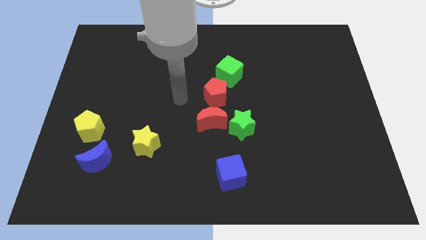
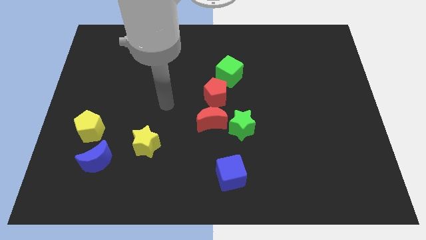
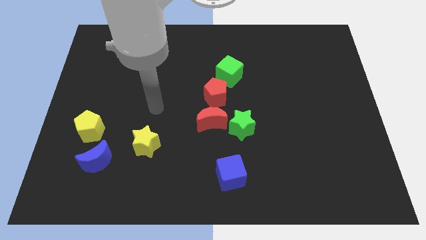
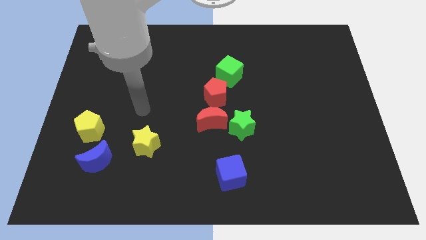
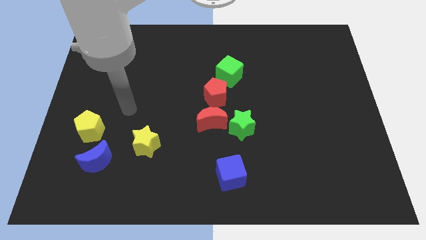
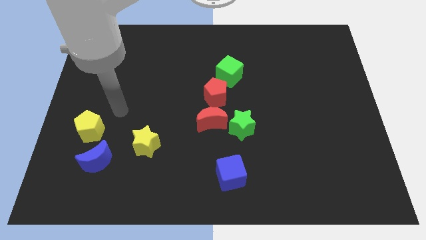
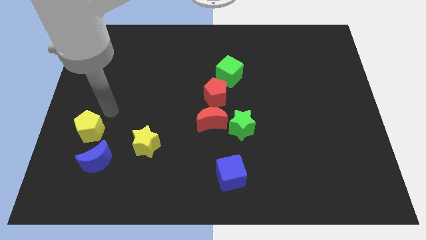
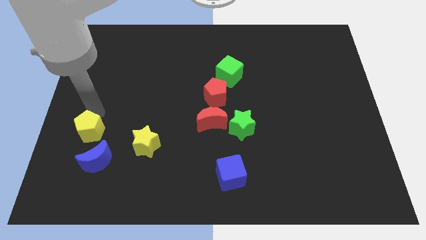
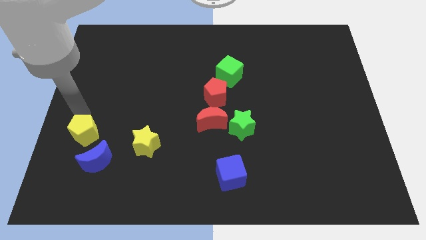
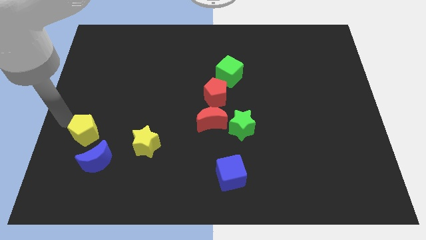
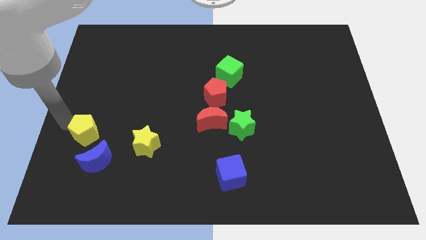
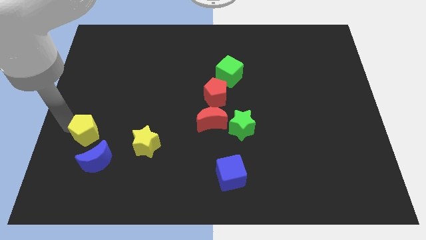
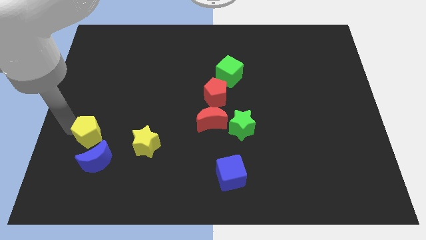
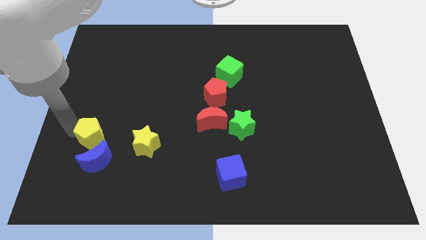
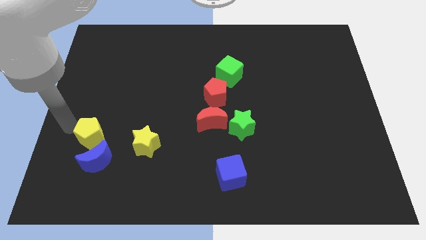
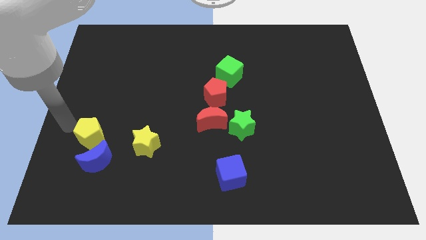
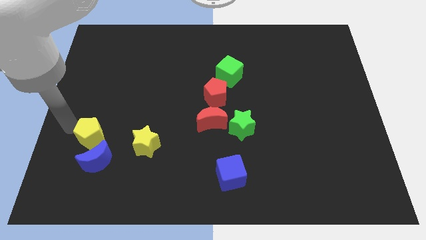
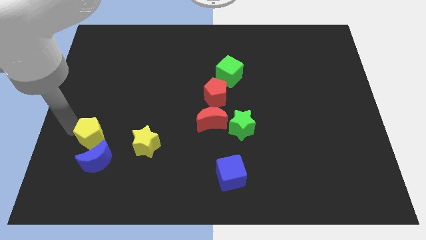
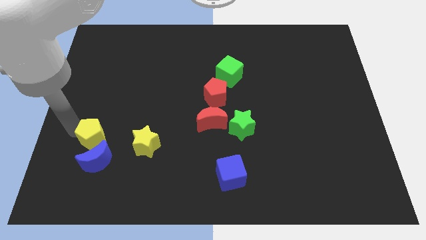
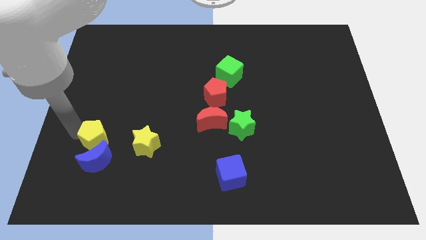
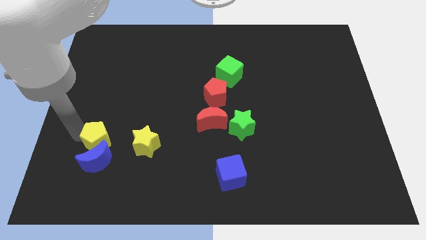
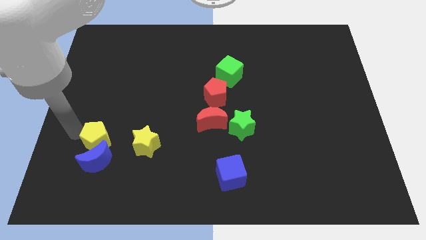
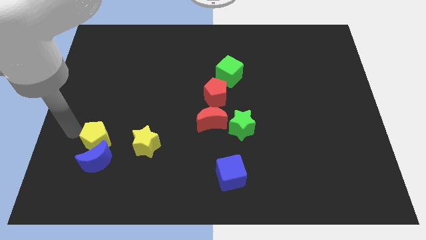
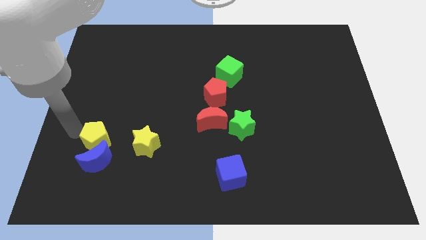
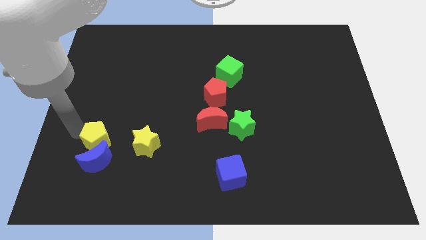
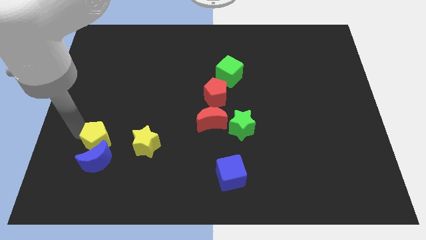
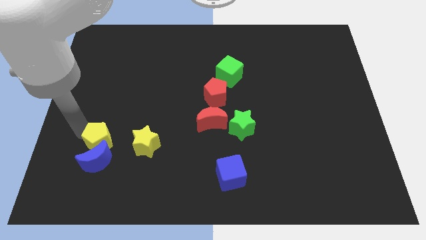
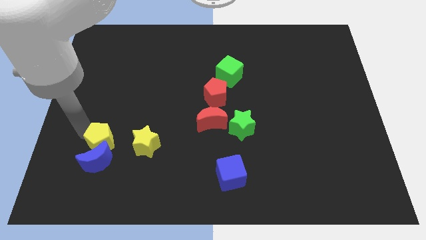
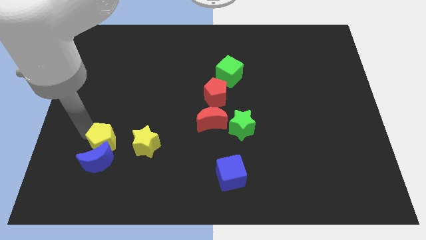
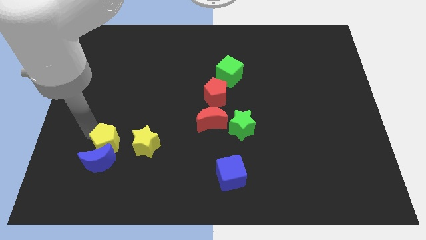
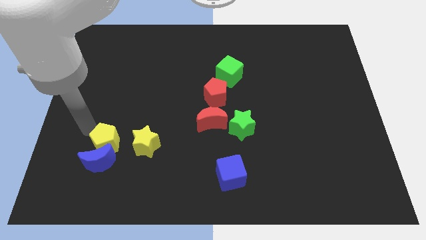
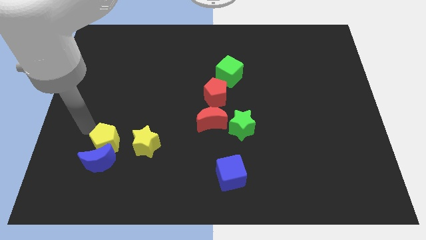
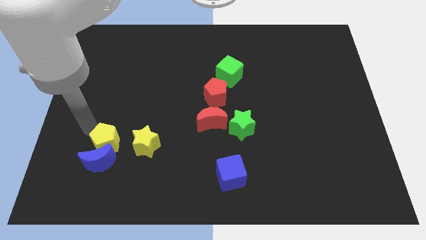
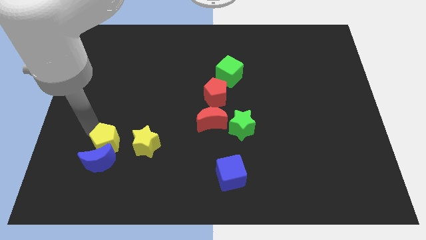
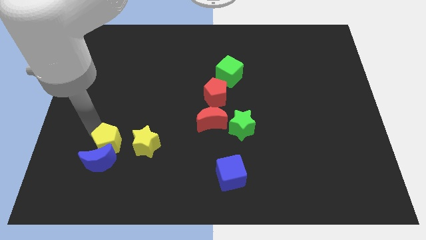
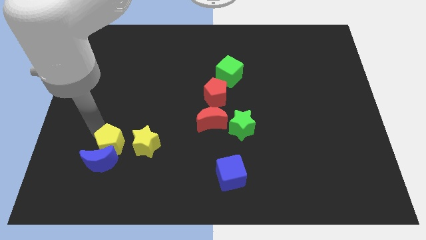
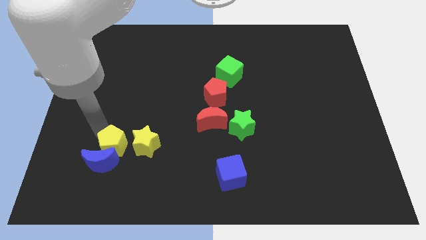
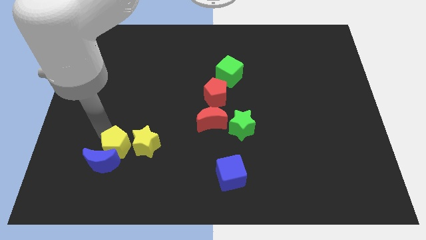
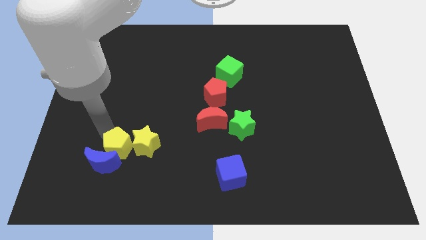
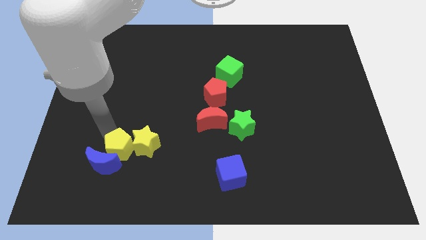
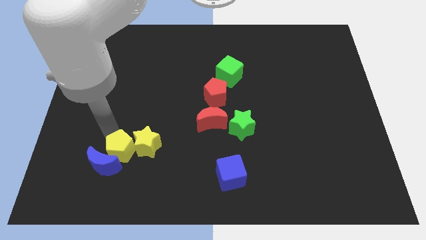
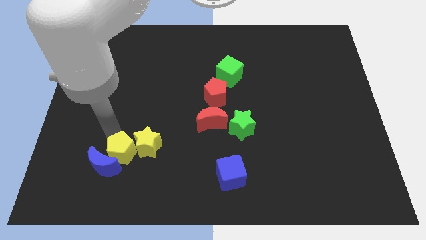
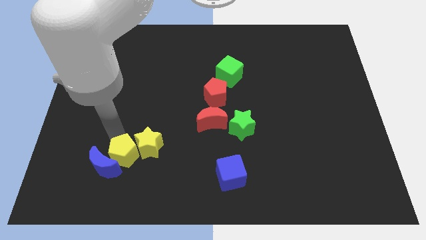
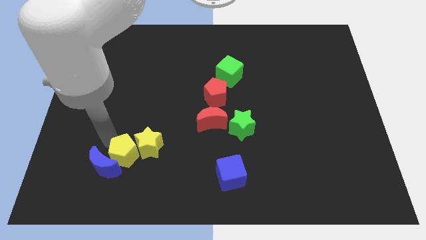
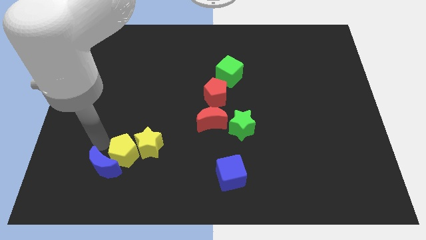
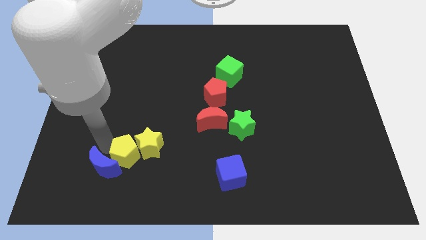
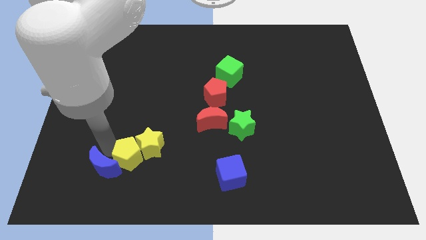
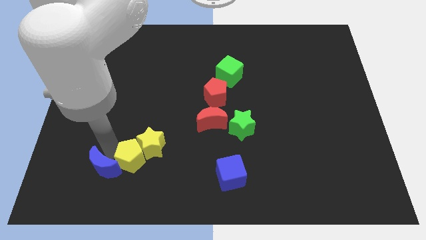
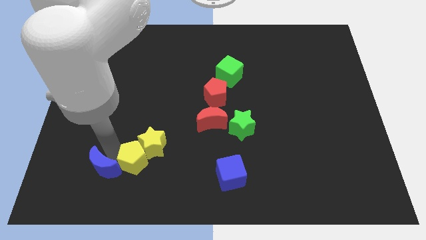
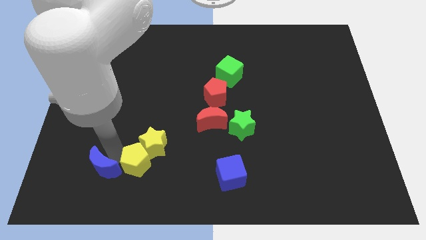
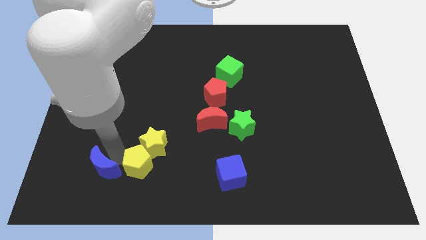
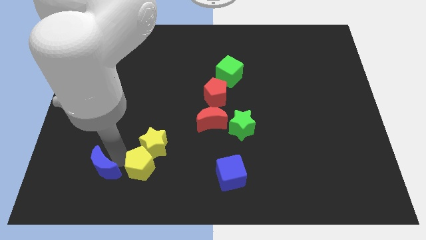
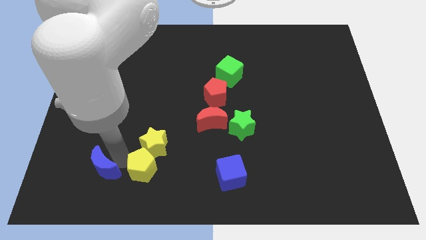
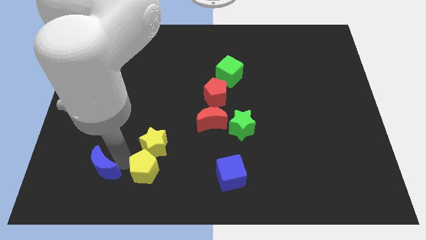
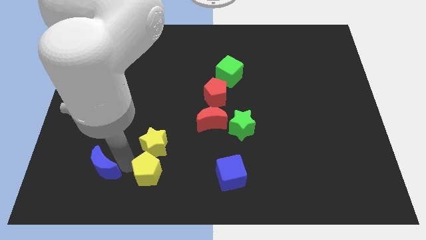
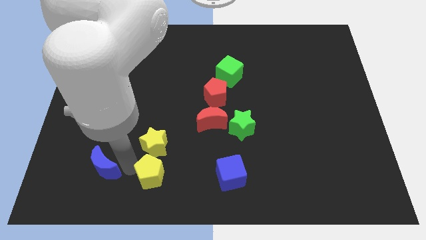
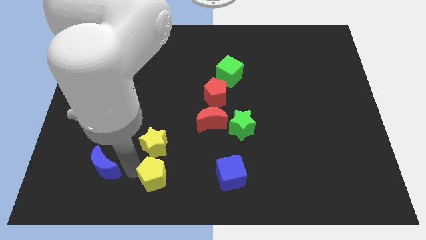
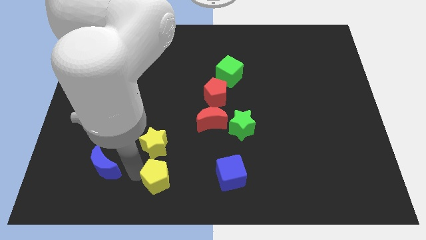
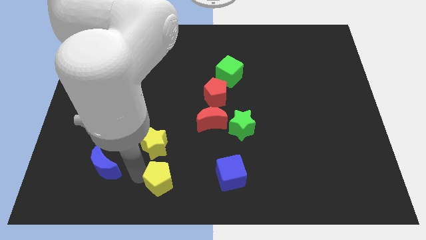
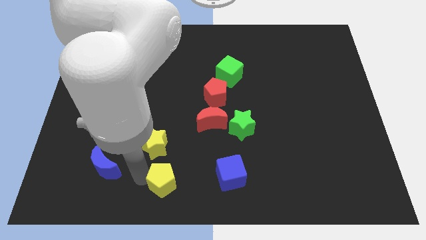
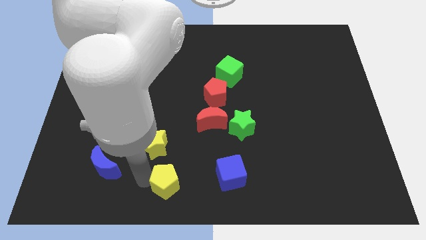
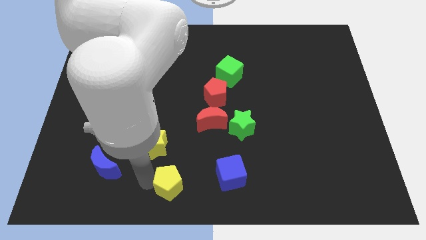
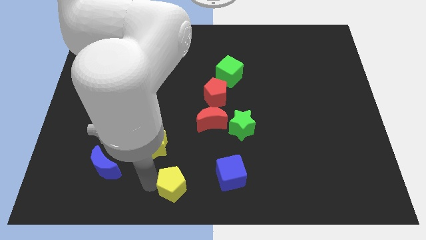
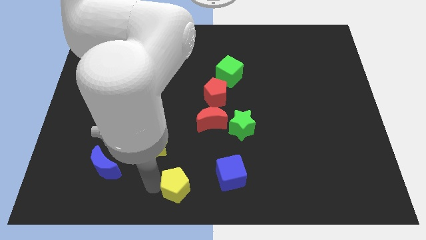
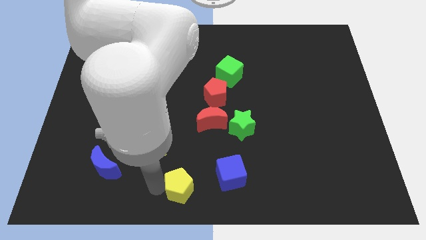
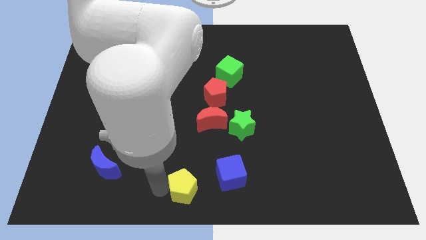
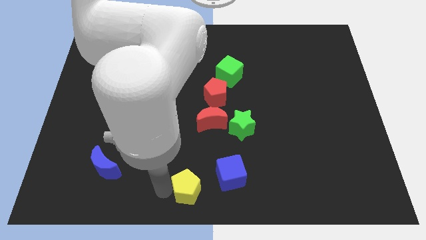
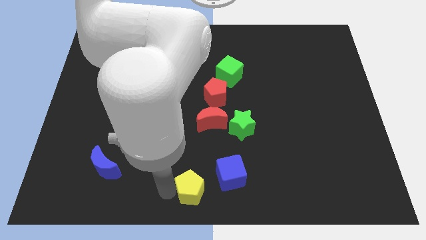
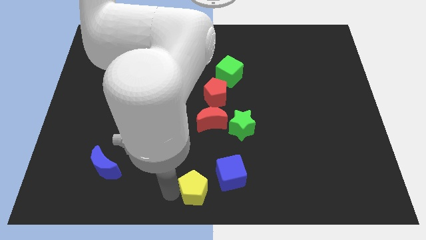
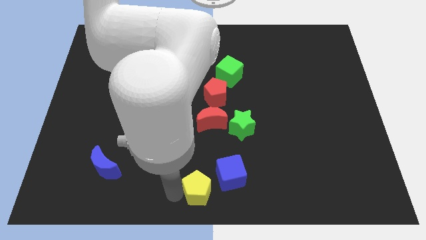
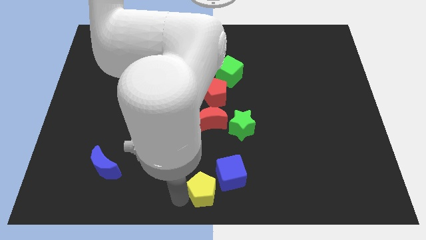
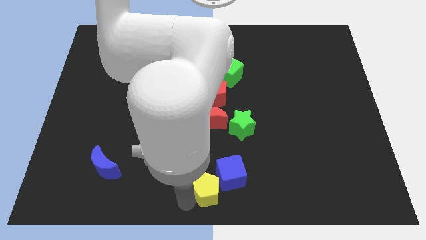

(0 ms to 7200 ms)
put the yellow pentagon next to the blue cube
